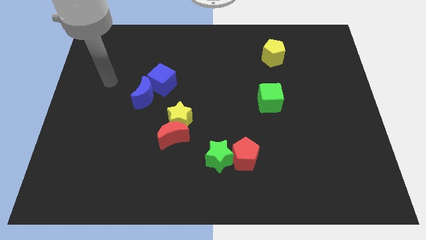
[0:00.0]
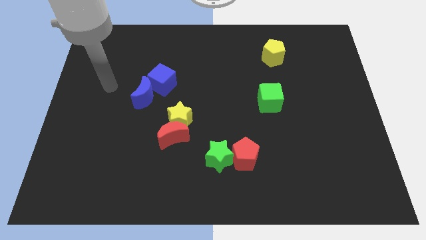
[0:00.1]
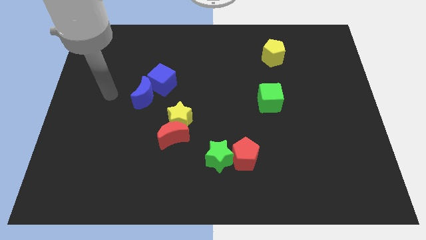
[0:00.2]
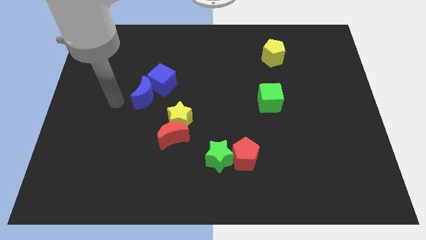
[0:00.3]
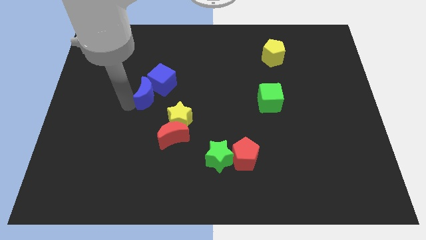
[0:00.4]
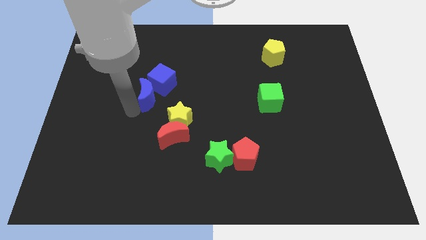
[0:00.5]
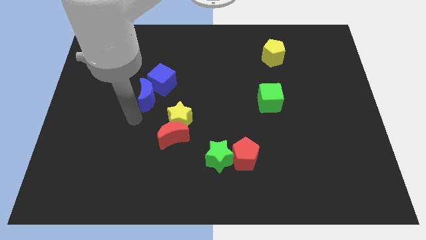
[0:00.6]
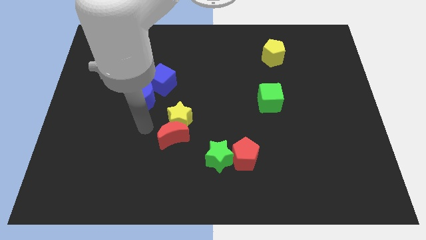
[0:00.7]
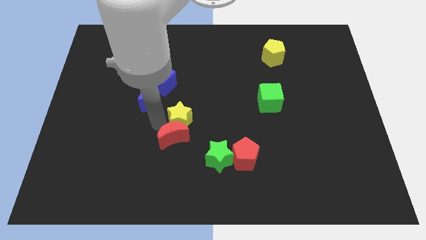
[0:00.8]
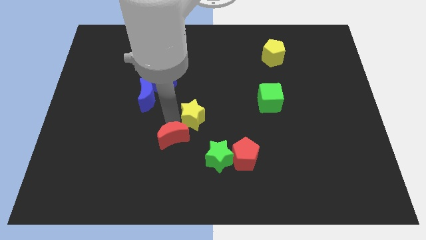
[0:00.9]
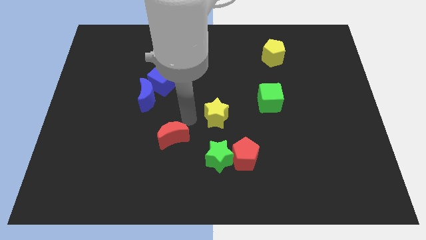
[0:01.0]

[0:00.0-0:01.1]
move the red moon away from the yellow star

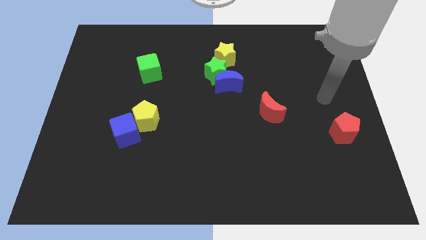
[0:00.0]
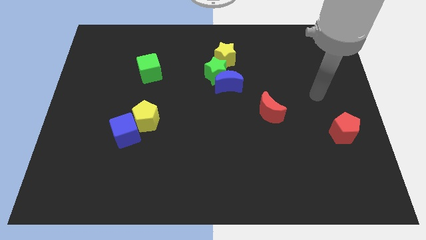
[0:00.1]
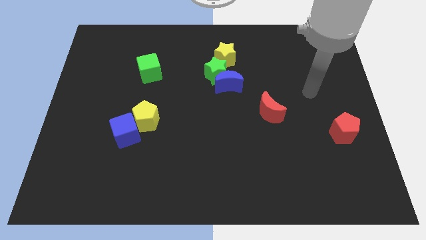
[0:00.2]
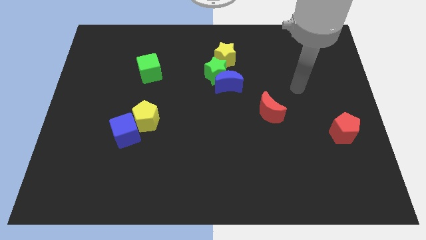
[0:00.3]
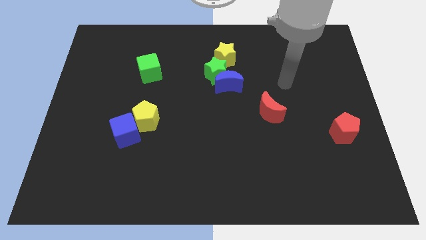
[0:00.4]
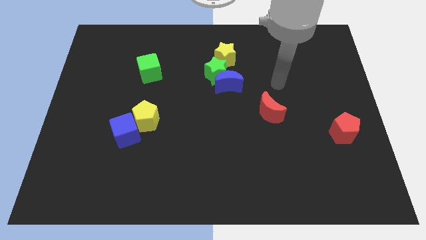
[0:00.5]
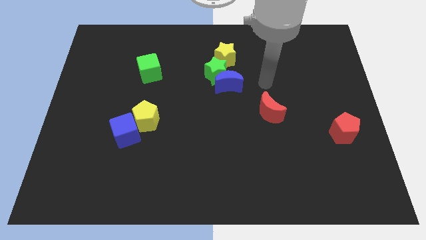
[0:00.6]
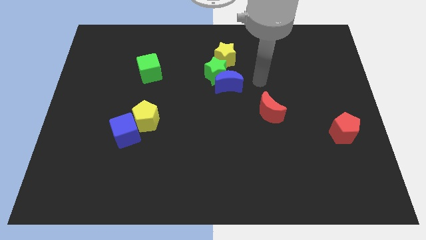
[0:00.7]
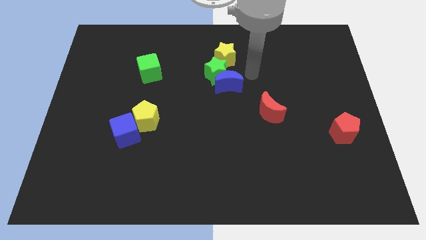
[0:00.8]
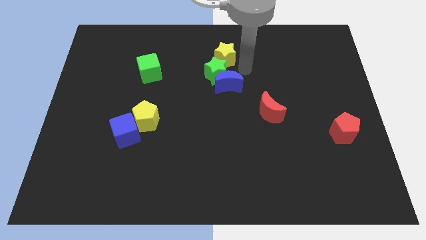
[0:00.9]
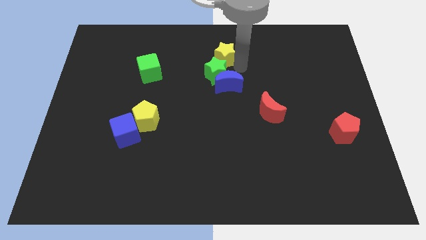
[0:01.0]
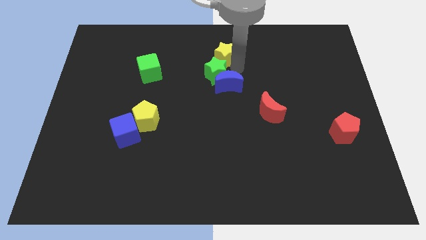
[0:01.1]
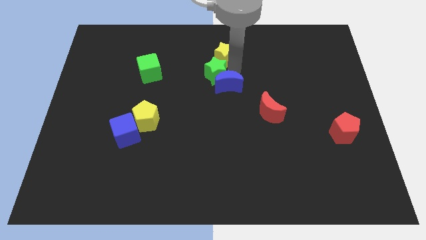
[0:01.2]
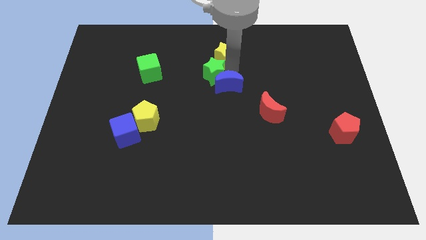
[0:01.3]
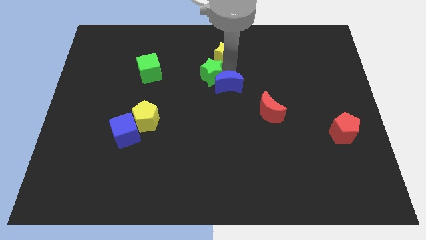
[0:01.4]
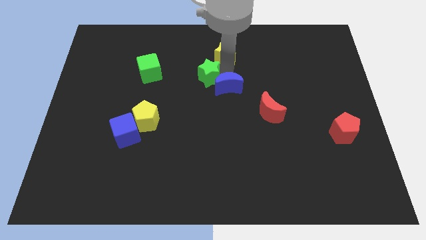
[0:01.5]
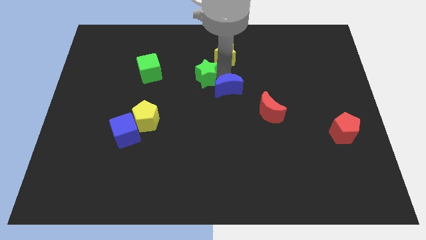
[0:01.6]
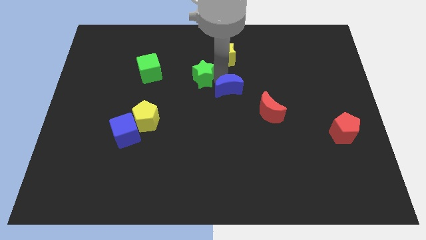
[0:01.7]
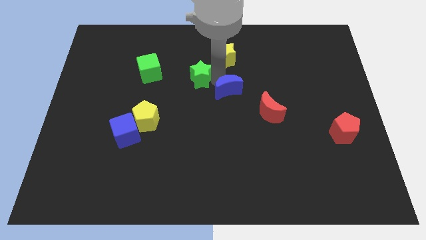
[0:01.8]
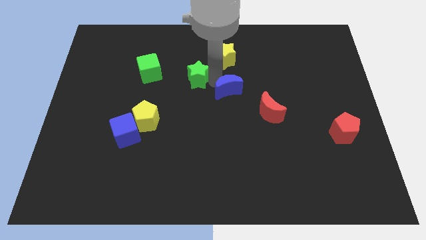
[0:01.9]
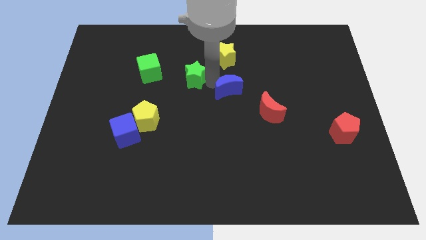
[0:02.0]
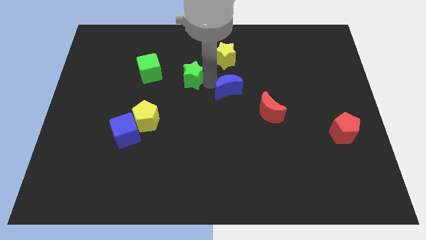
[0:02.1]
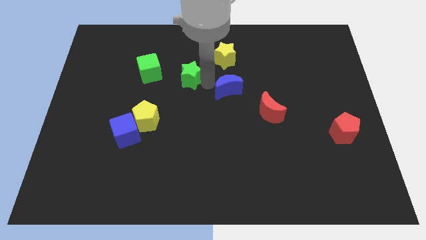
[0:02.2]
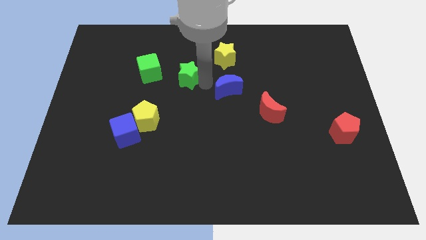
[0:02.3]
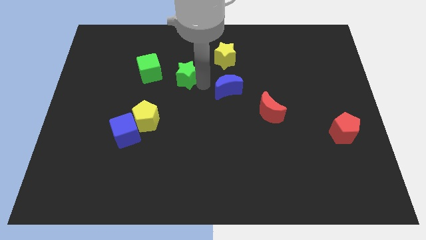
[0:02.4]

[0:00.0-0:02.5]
separate the green star from the blue moon and yellow star

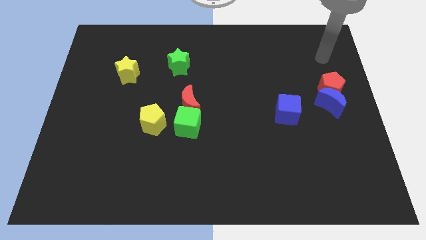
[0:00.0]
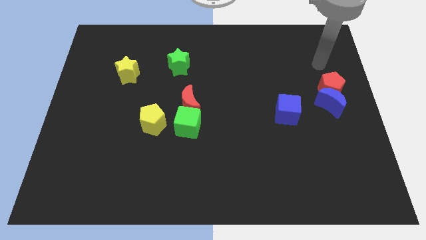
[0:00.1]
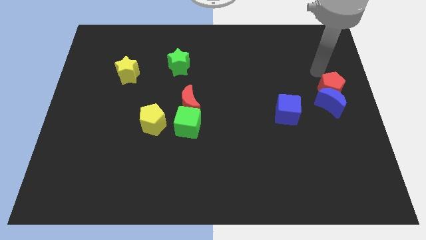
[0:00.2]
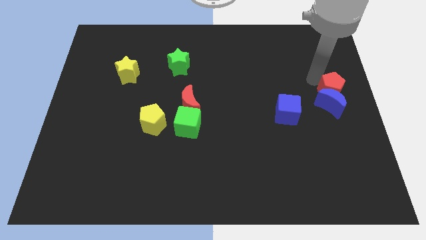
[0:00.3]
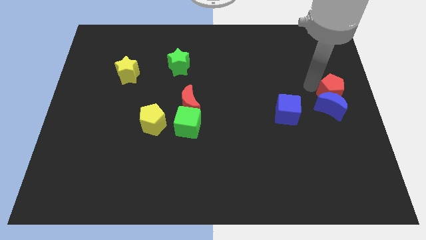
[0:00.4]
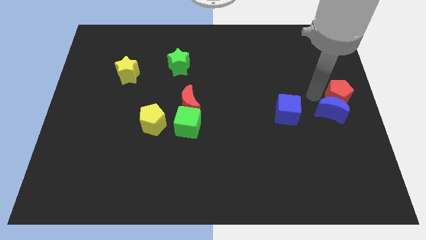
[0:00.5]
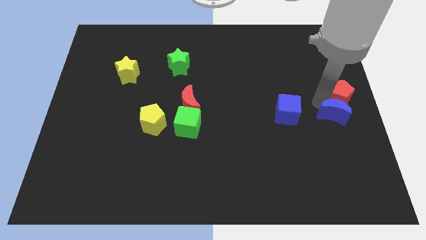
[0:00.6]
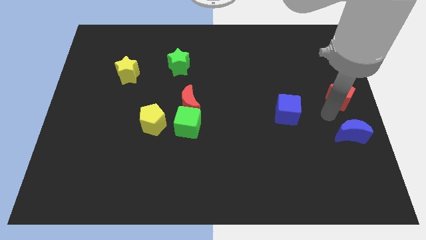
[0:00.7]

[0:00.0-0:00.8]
move the red pentagon away from the blue moon

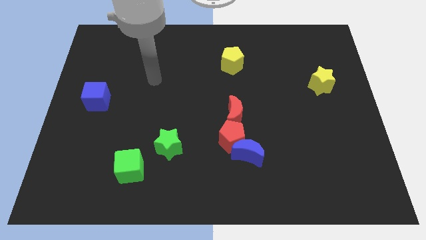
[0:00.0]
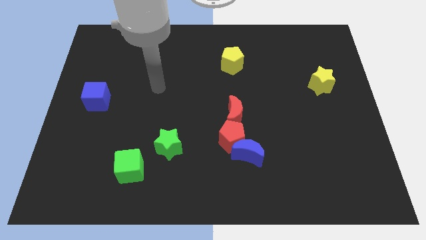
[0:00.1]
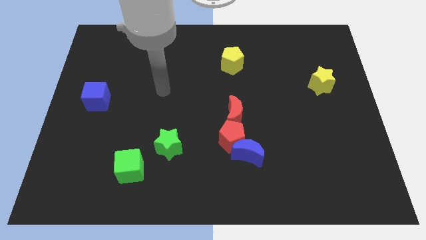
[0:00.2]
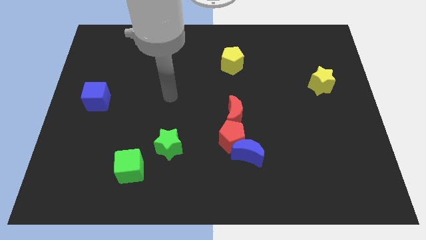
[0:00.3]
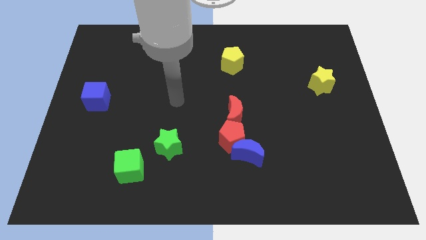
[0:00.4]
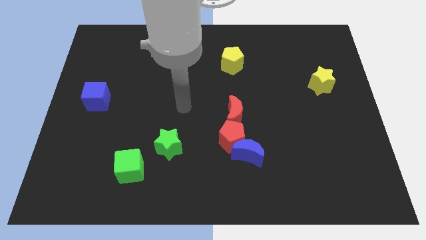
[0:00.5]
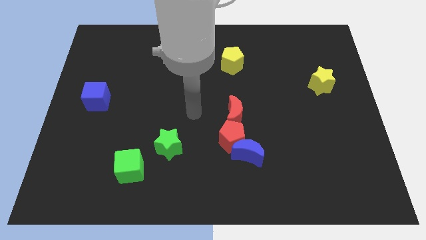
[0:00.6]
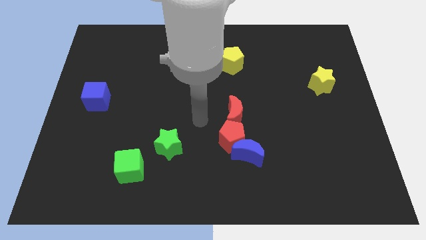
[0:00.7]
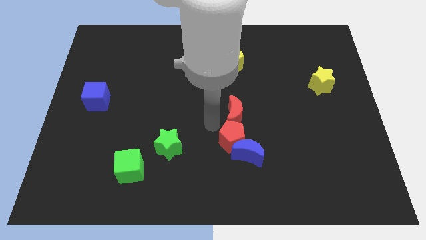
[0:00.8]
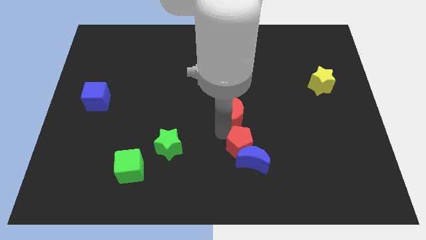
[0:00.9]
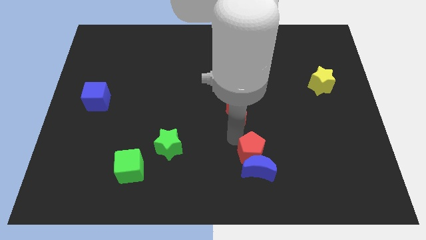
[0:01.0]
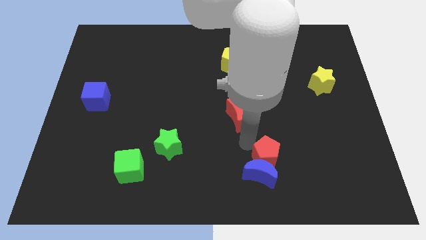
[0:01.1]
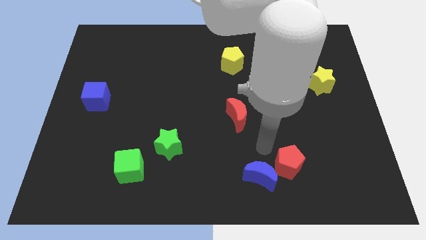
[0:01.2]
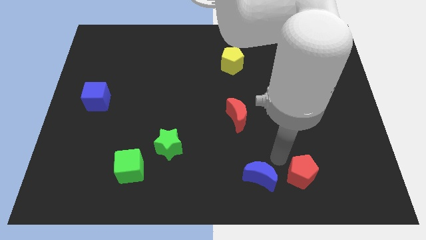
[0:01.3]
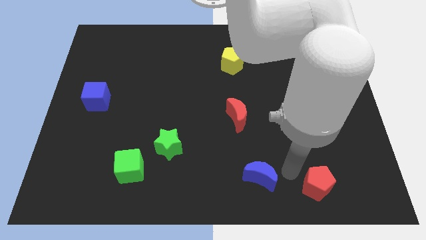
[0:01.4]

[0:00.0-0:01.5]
separate the blue moon from the red pentagon

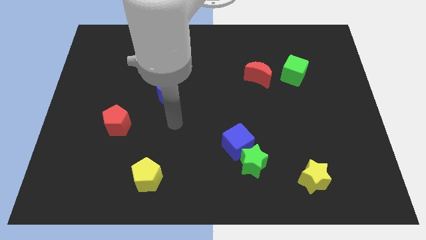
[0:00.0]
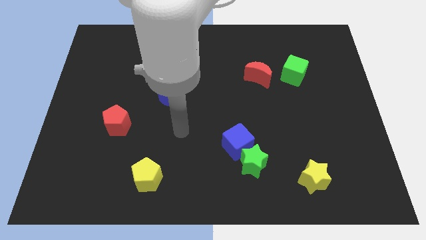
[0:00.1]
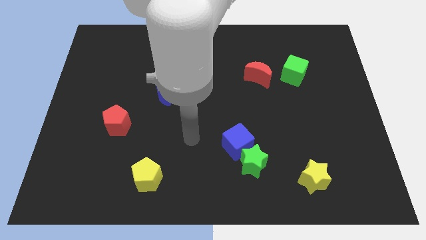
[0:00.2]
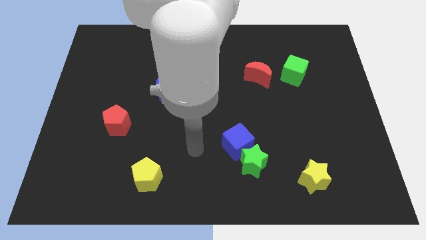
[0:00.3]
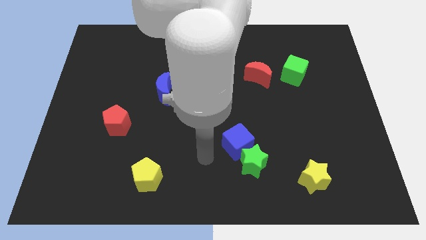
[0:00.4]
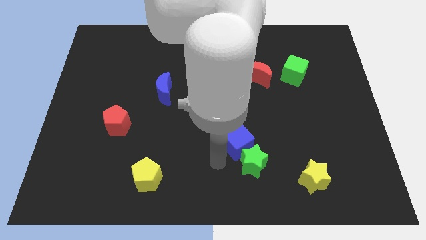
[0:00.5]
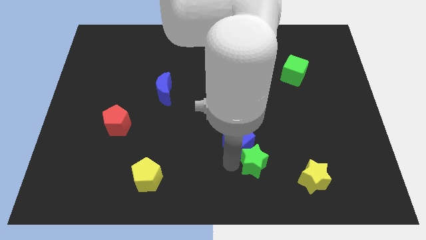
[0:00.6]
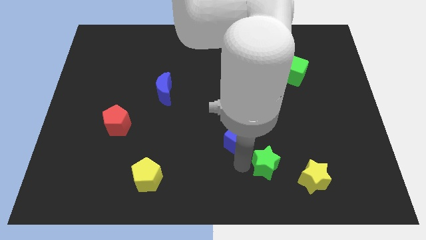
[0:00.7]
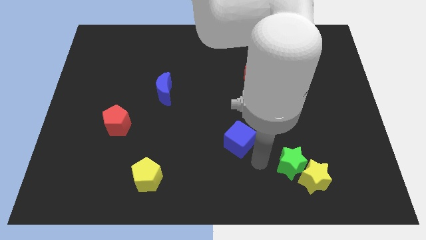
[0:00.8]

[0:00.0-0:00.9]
pull the blue cube apart from the green star

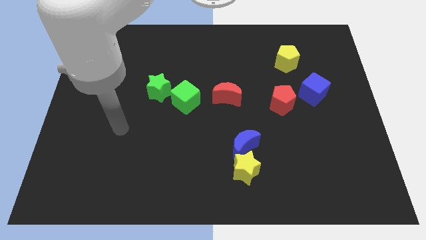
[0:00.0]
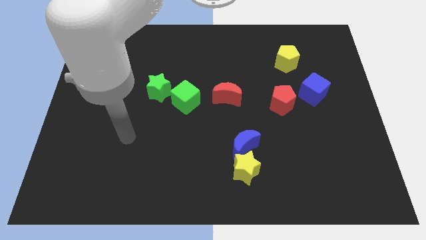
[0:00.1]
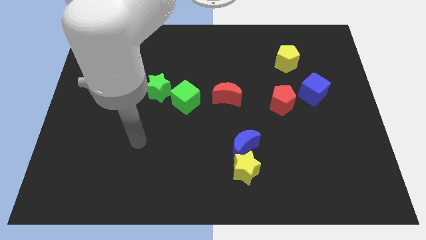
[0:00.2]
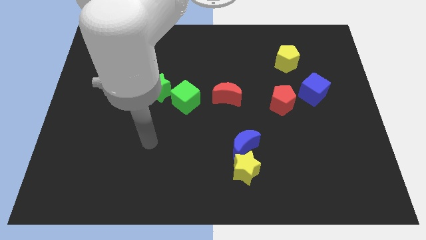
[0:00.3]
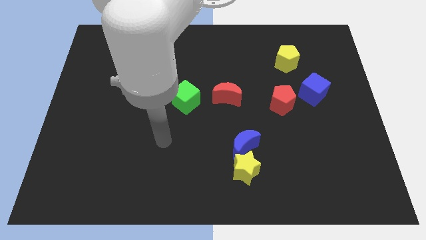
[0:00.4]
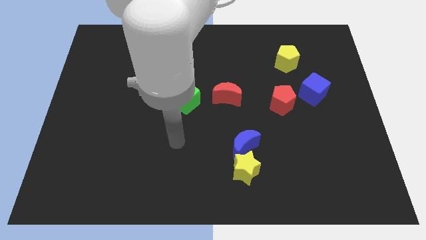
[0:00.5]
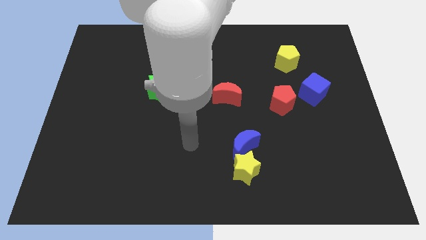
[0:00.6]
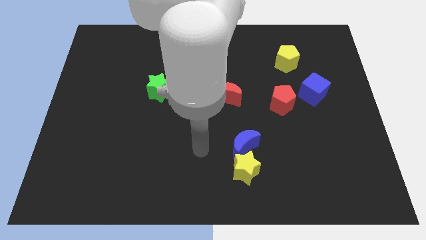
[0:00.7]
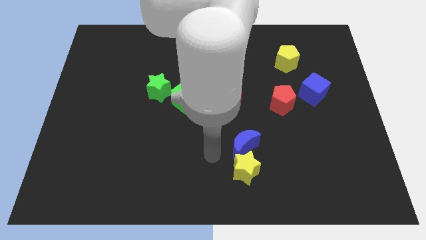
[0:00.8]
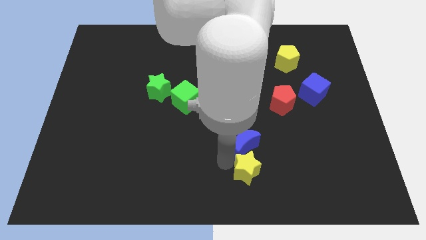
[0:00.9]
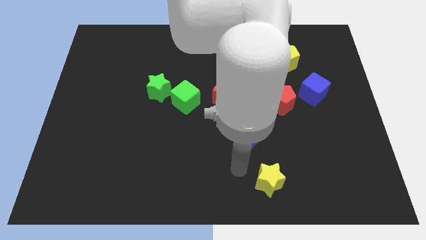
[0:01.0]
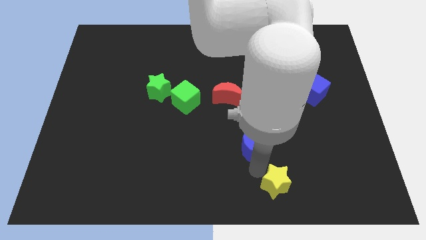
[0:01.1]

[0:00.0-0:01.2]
pull the blue moon apart from the yellow star

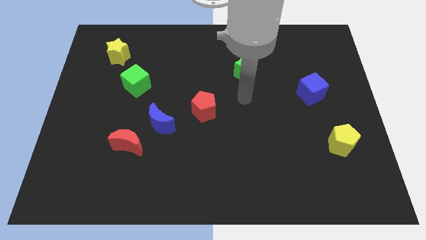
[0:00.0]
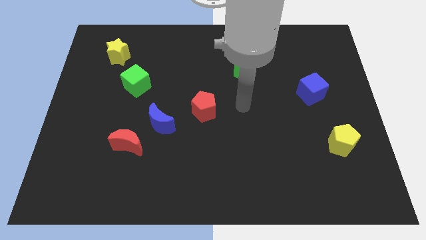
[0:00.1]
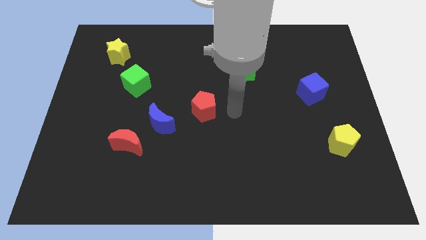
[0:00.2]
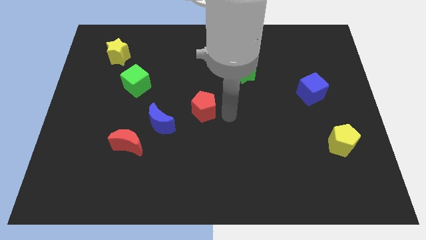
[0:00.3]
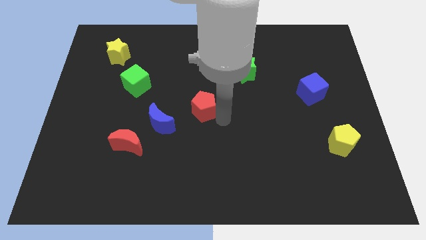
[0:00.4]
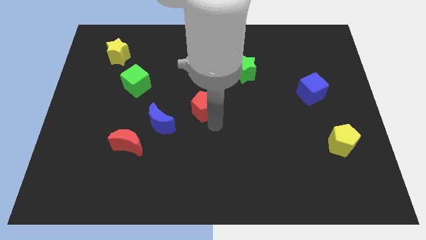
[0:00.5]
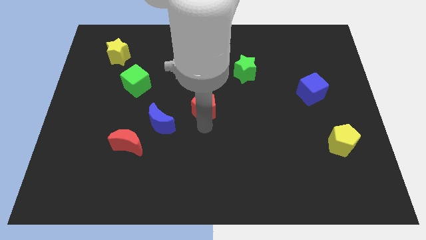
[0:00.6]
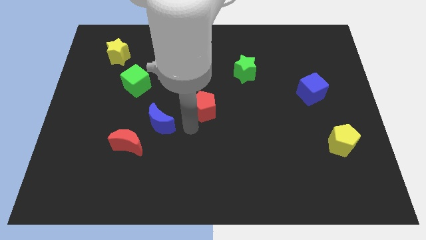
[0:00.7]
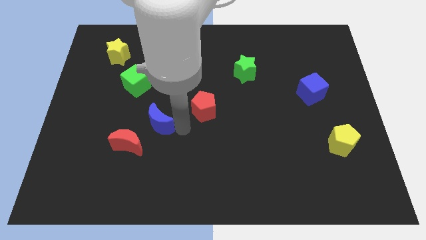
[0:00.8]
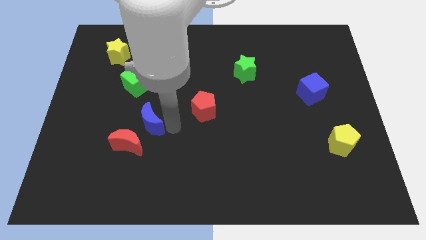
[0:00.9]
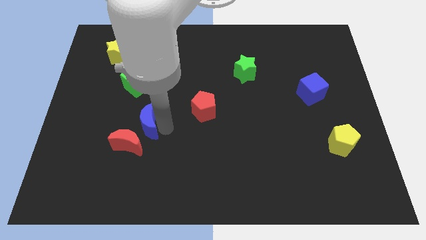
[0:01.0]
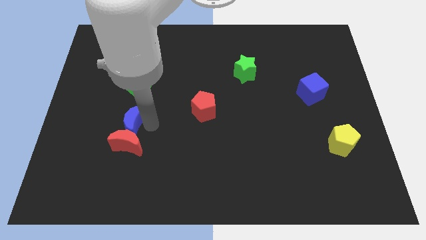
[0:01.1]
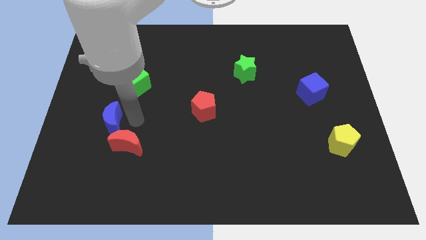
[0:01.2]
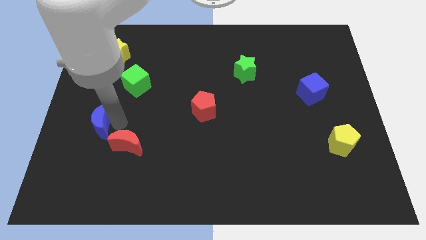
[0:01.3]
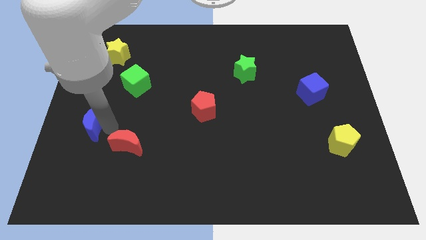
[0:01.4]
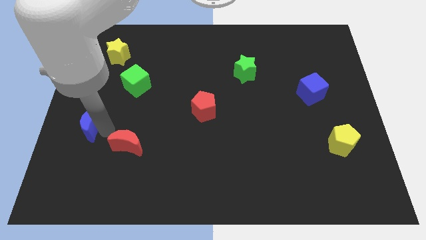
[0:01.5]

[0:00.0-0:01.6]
separate the red moon from the blue moon
